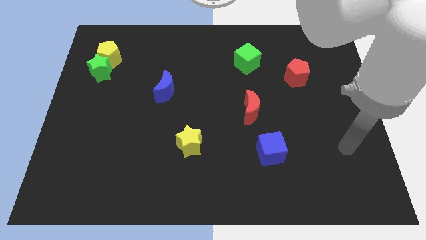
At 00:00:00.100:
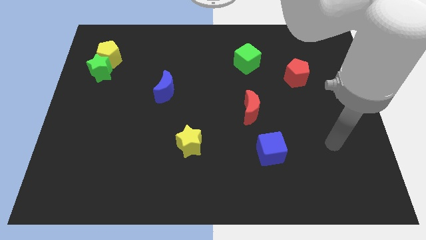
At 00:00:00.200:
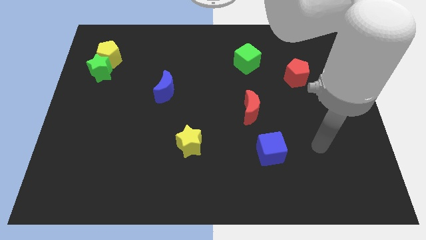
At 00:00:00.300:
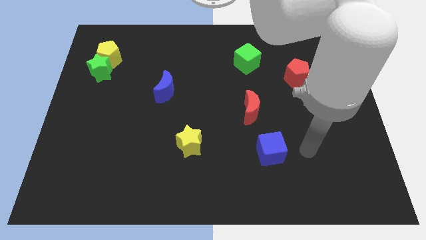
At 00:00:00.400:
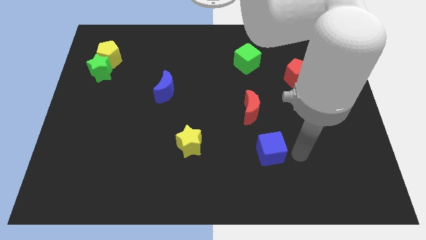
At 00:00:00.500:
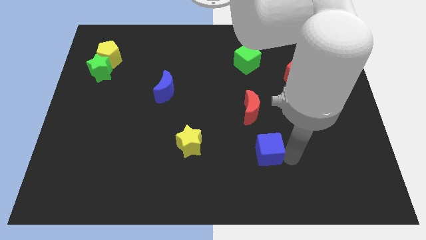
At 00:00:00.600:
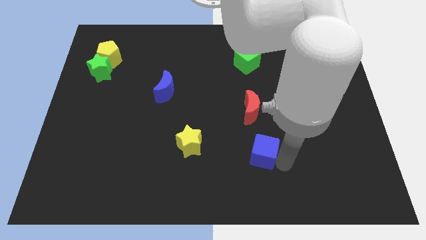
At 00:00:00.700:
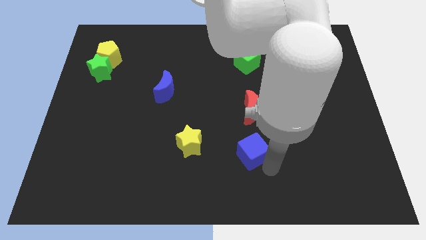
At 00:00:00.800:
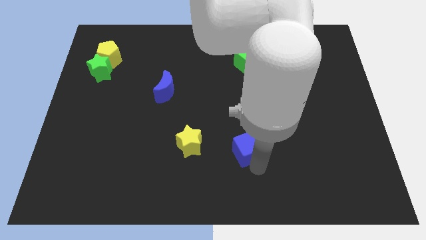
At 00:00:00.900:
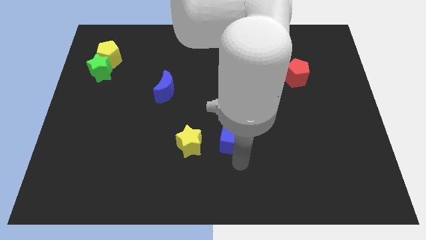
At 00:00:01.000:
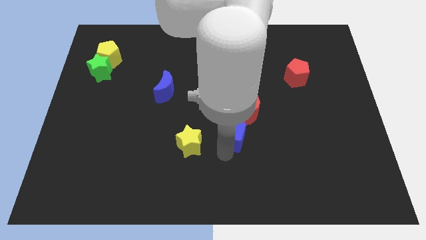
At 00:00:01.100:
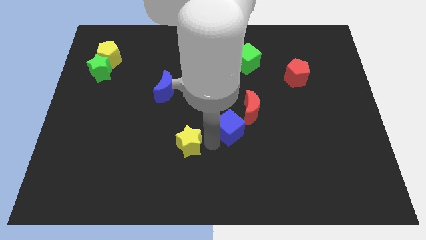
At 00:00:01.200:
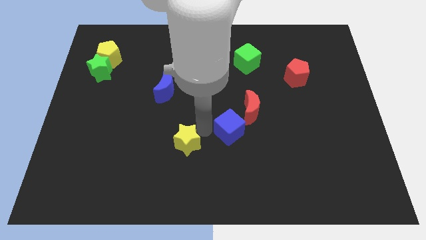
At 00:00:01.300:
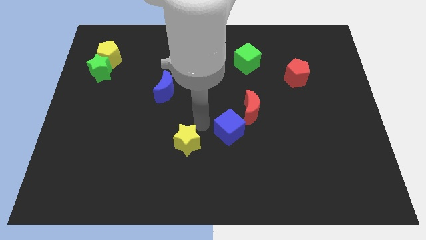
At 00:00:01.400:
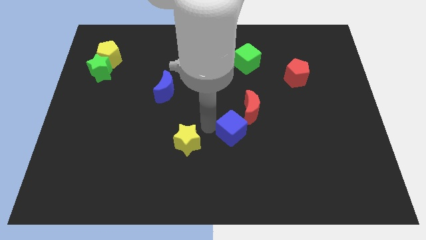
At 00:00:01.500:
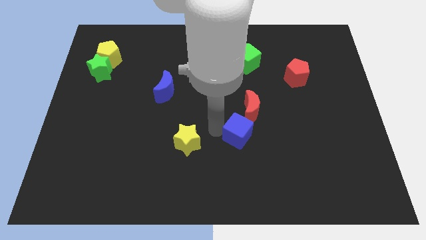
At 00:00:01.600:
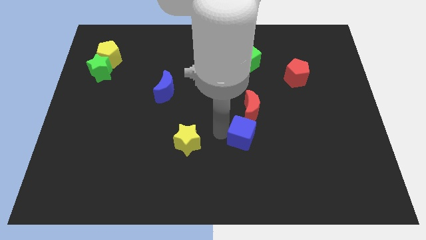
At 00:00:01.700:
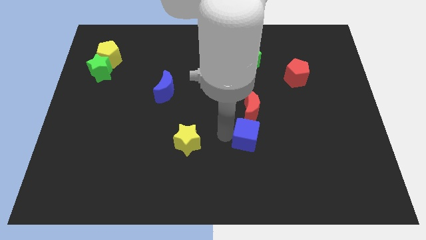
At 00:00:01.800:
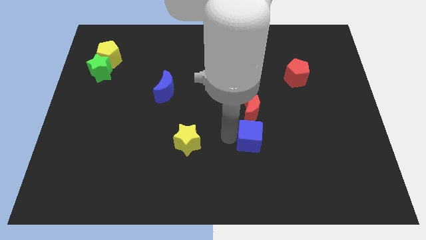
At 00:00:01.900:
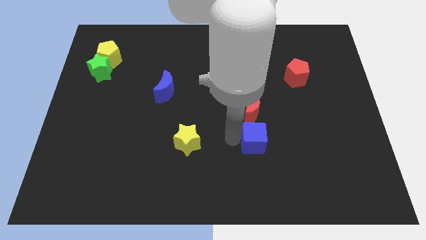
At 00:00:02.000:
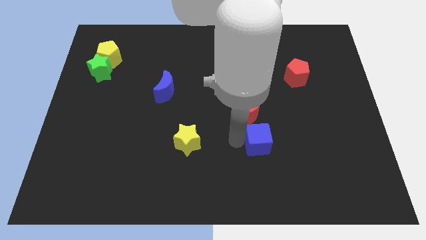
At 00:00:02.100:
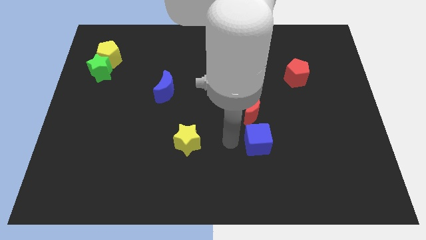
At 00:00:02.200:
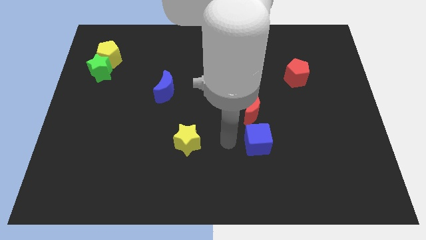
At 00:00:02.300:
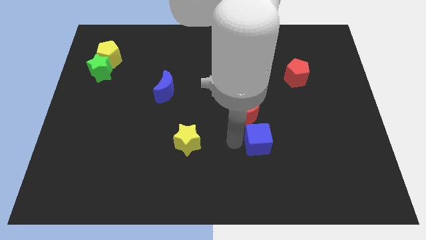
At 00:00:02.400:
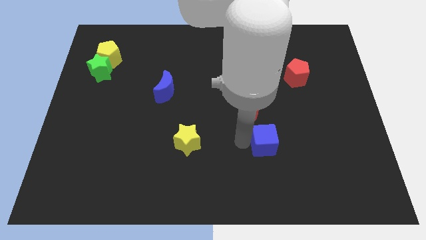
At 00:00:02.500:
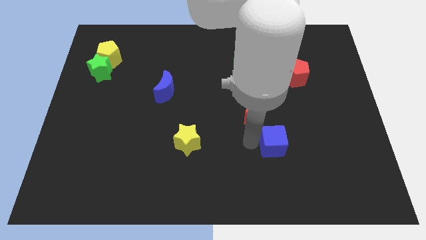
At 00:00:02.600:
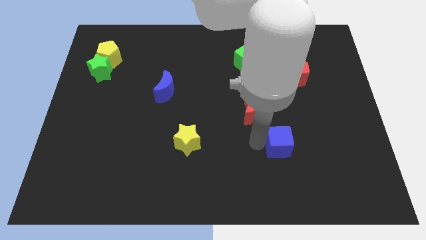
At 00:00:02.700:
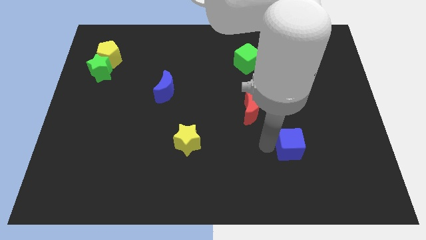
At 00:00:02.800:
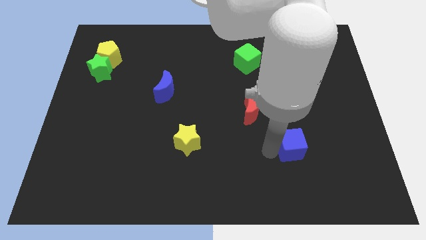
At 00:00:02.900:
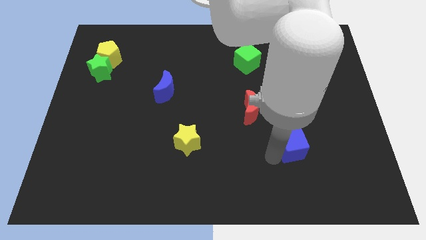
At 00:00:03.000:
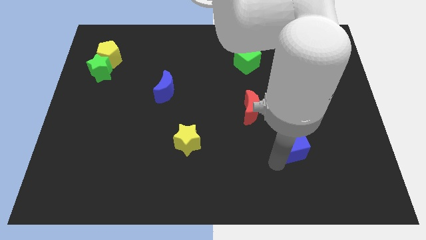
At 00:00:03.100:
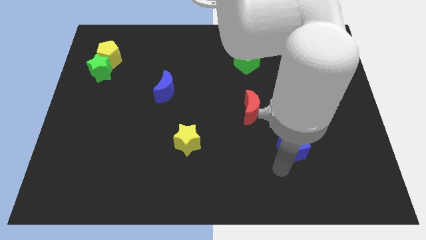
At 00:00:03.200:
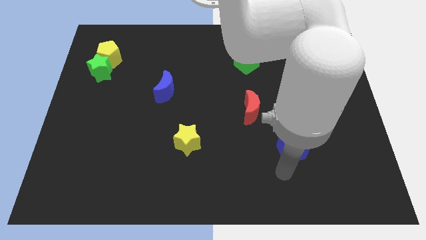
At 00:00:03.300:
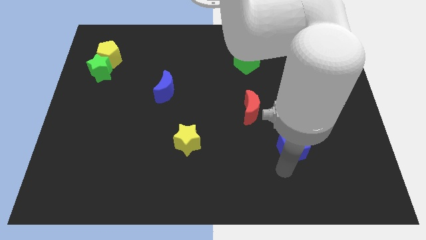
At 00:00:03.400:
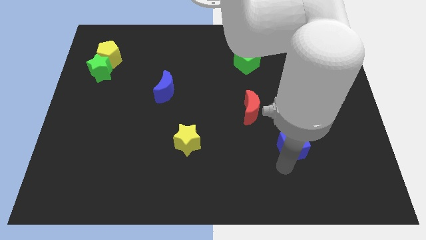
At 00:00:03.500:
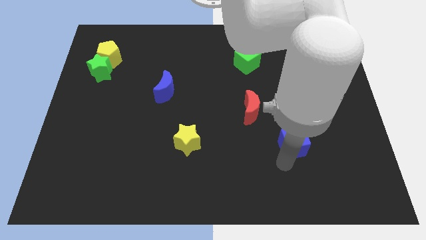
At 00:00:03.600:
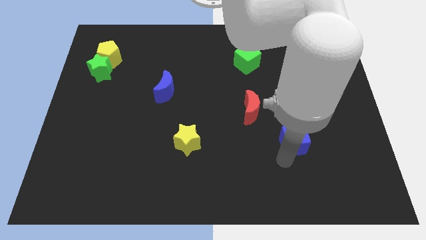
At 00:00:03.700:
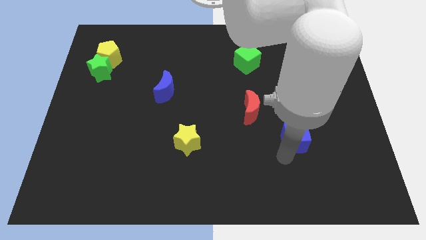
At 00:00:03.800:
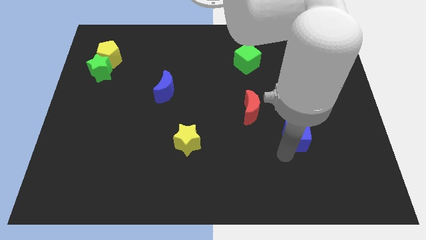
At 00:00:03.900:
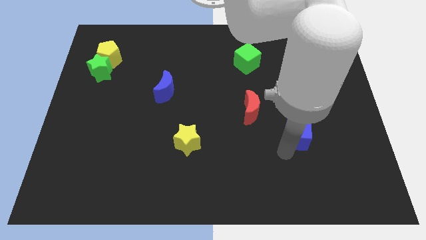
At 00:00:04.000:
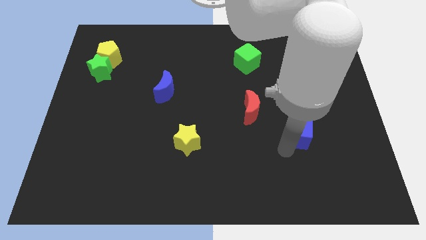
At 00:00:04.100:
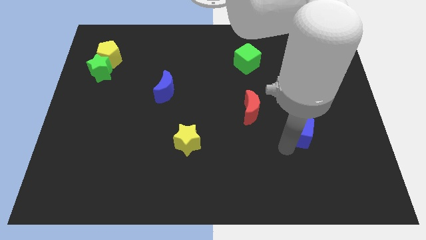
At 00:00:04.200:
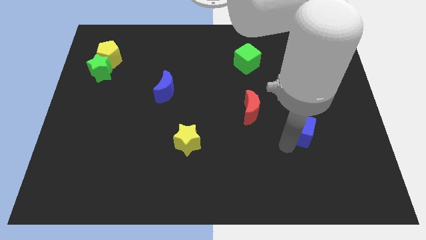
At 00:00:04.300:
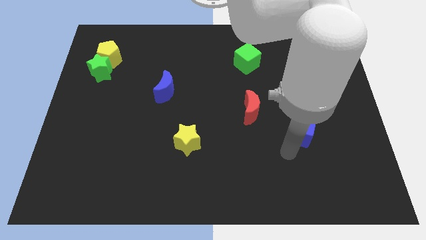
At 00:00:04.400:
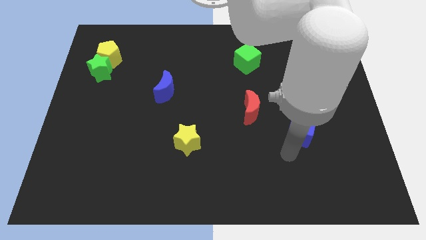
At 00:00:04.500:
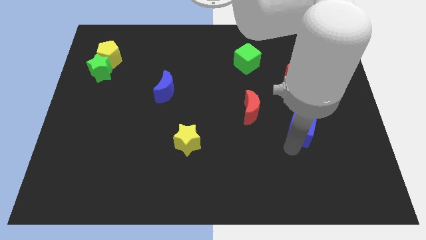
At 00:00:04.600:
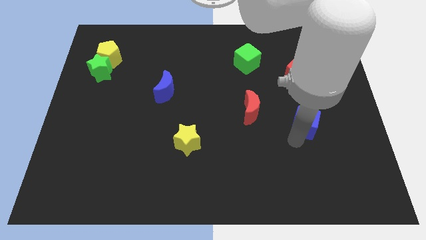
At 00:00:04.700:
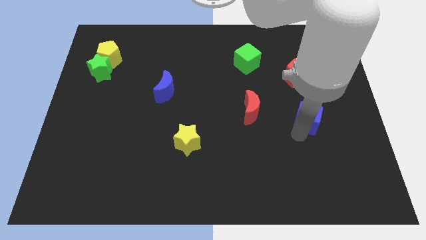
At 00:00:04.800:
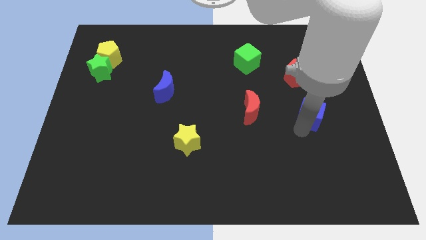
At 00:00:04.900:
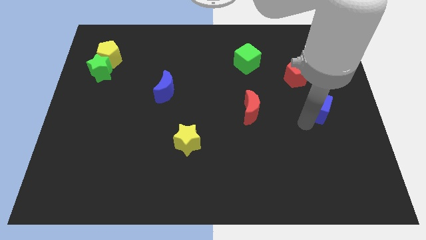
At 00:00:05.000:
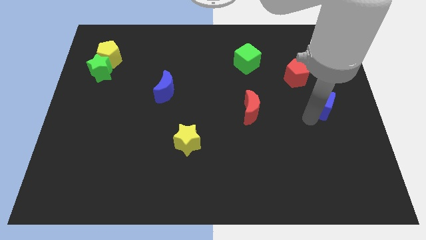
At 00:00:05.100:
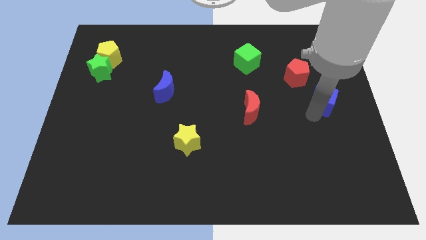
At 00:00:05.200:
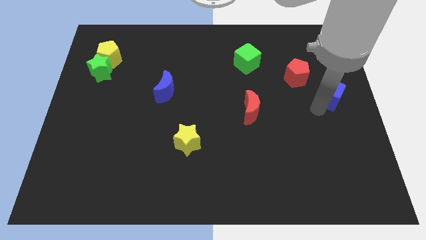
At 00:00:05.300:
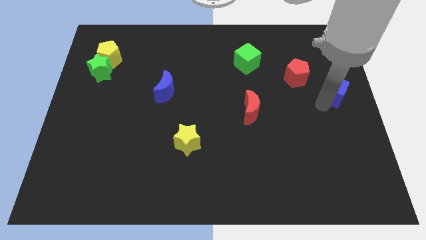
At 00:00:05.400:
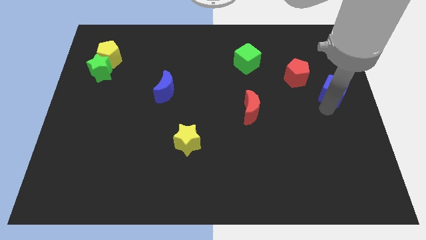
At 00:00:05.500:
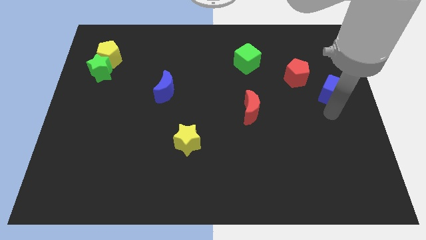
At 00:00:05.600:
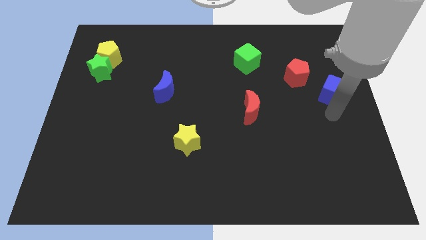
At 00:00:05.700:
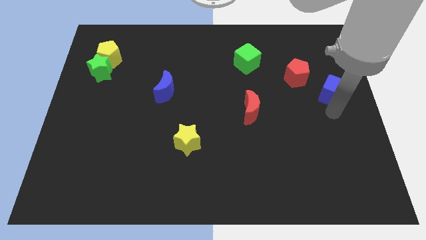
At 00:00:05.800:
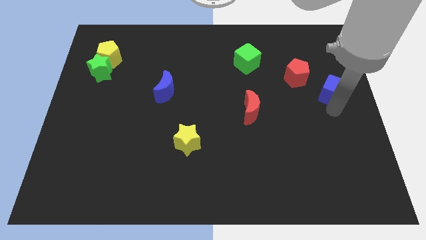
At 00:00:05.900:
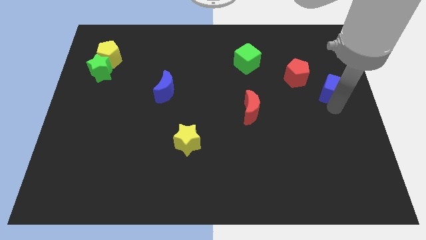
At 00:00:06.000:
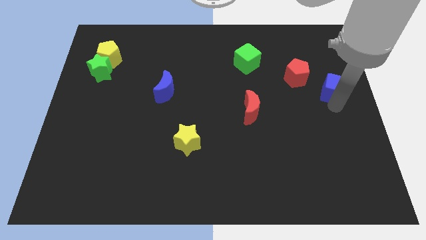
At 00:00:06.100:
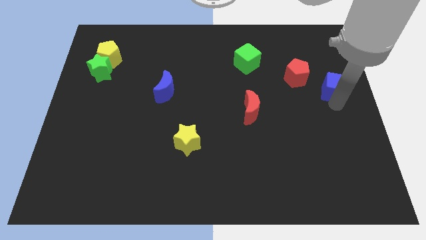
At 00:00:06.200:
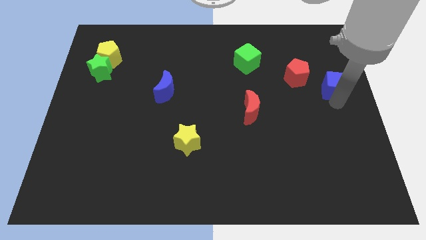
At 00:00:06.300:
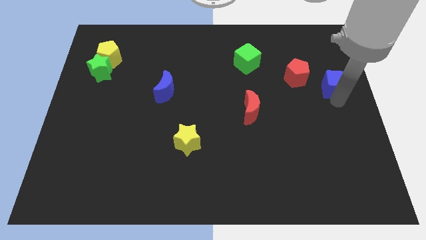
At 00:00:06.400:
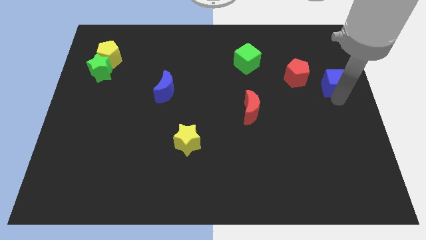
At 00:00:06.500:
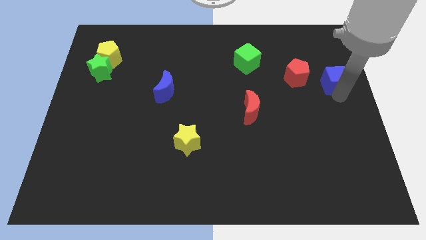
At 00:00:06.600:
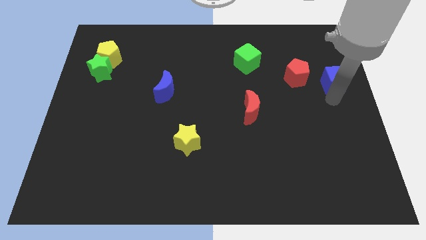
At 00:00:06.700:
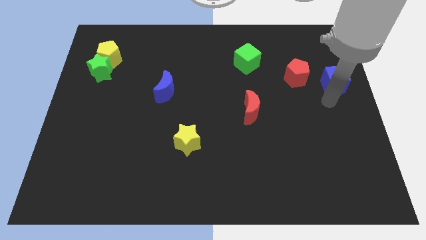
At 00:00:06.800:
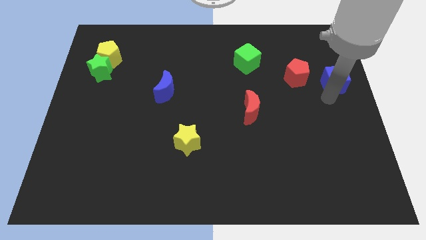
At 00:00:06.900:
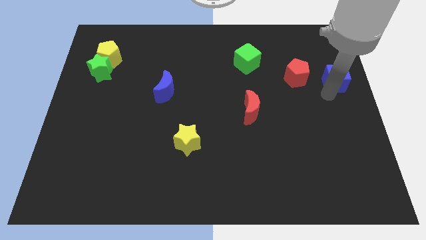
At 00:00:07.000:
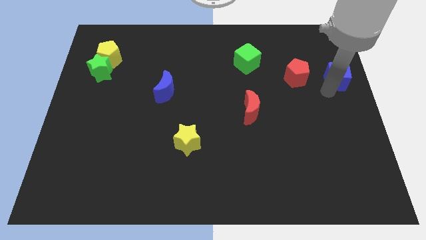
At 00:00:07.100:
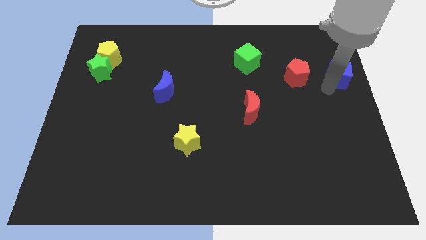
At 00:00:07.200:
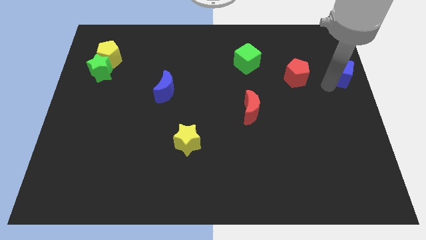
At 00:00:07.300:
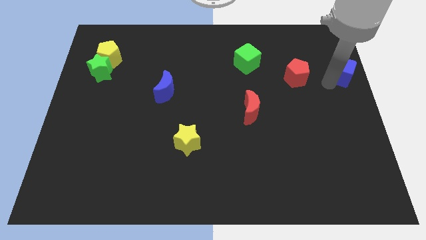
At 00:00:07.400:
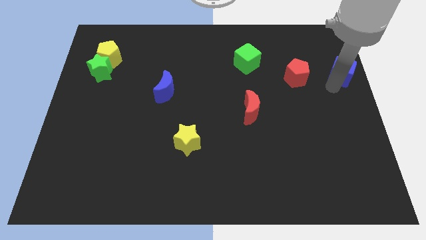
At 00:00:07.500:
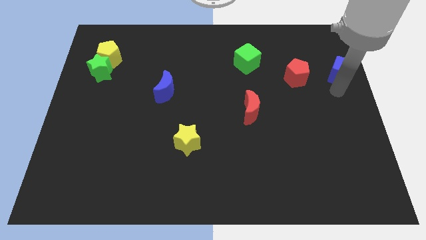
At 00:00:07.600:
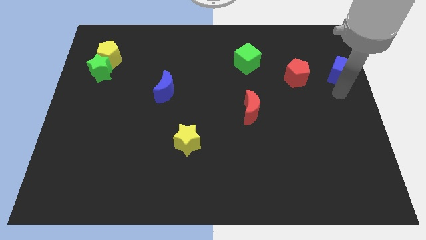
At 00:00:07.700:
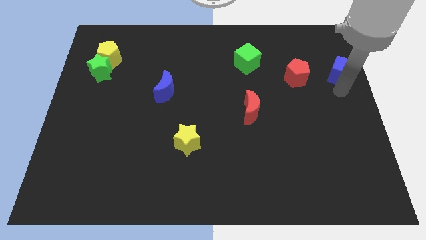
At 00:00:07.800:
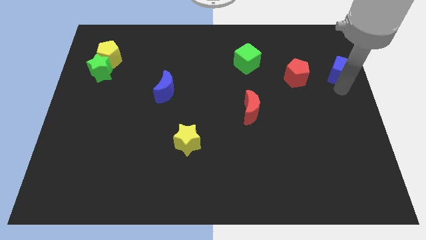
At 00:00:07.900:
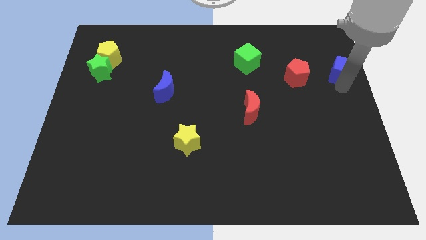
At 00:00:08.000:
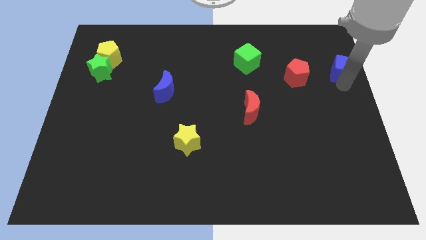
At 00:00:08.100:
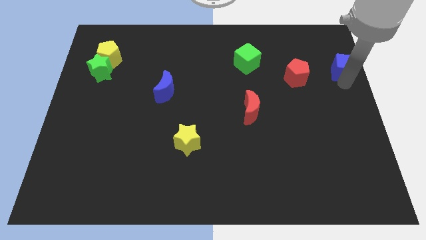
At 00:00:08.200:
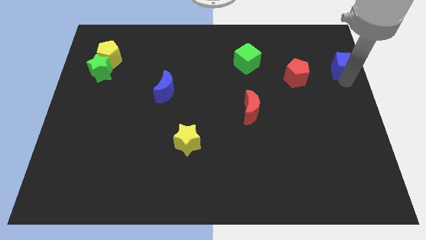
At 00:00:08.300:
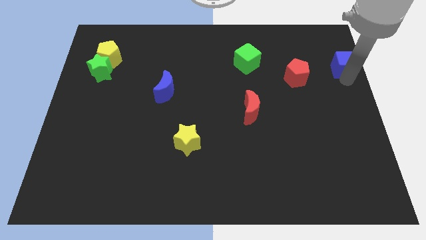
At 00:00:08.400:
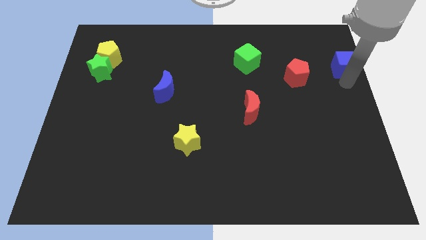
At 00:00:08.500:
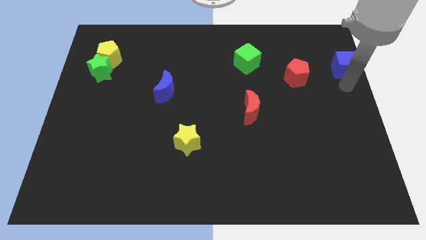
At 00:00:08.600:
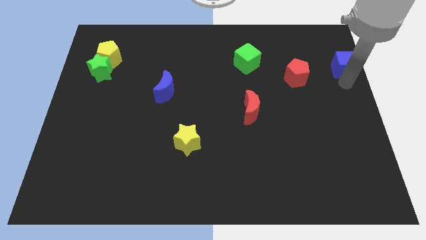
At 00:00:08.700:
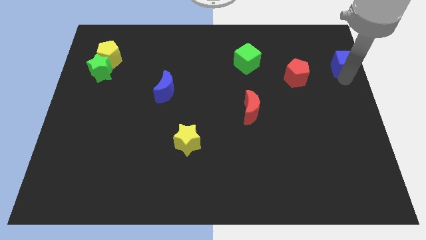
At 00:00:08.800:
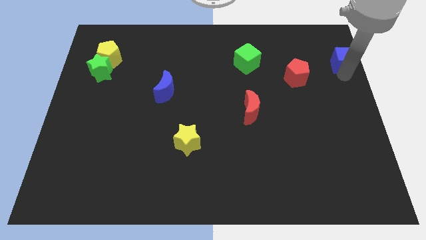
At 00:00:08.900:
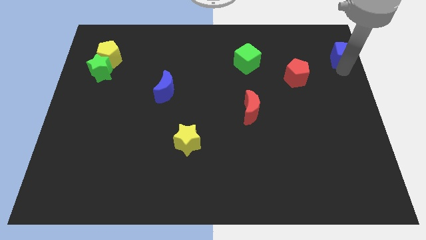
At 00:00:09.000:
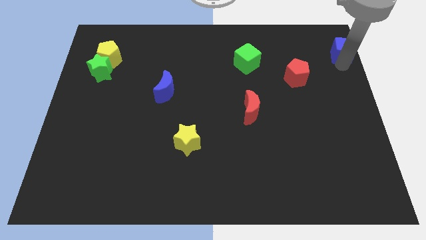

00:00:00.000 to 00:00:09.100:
slide the blue cube to the upper right corner
